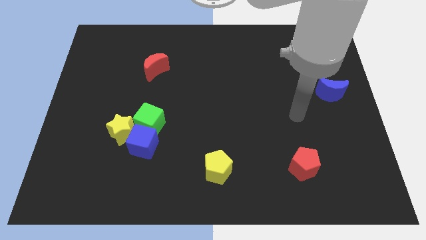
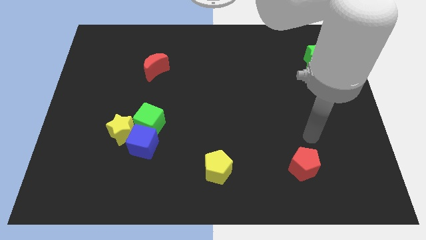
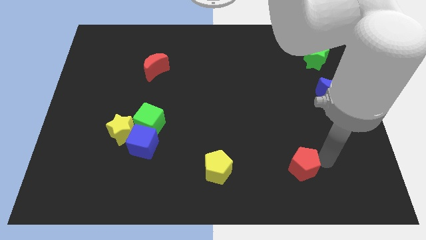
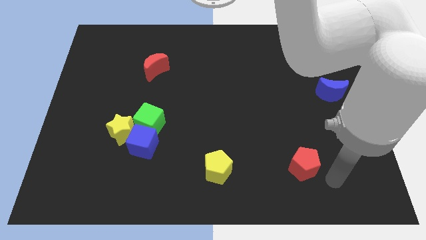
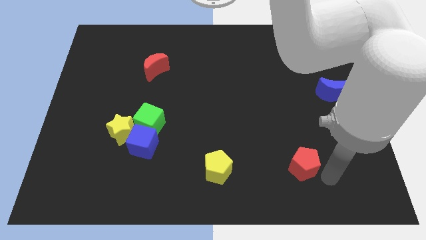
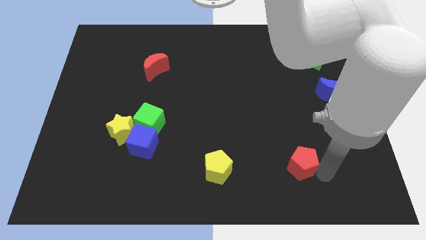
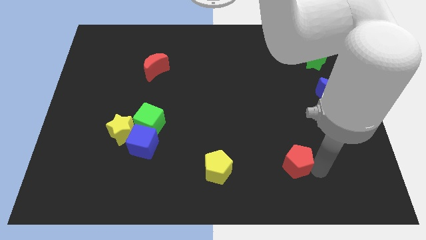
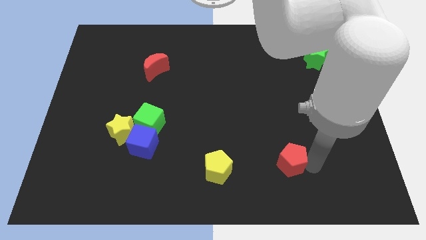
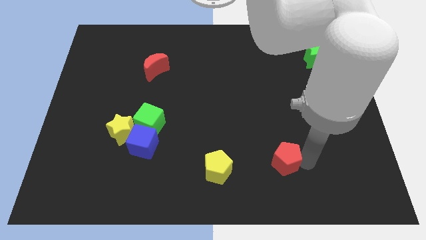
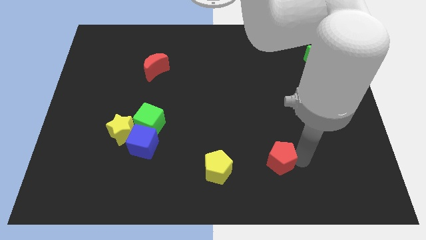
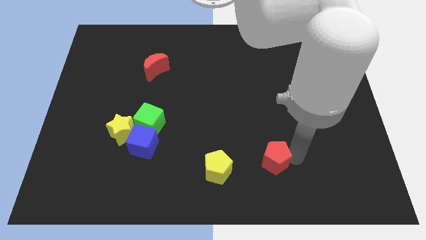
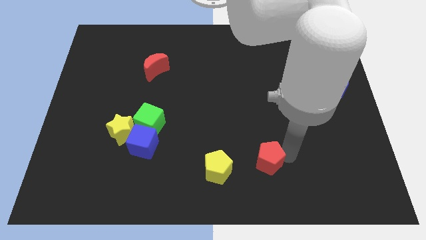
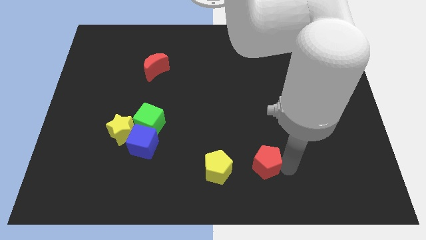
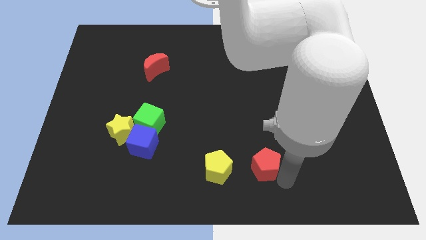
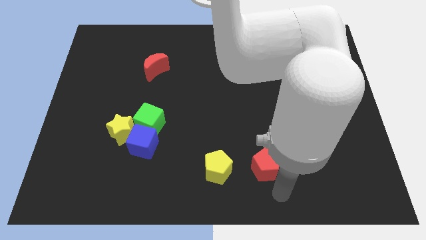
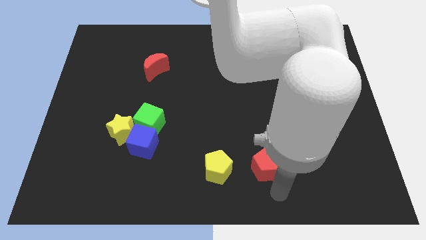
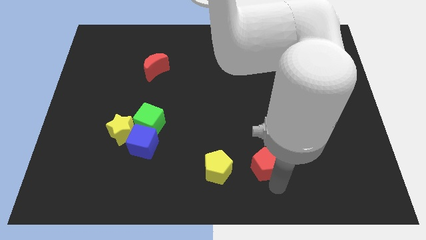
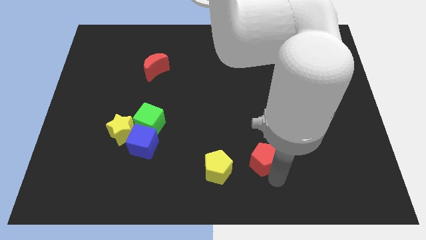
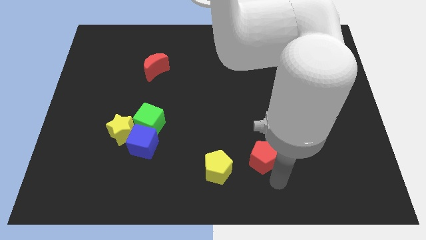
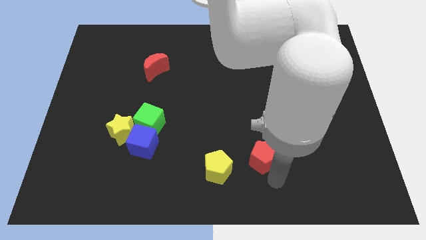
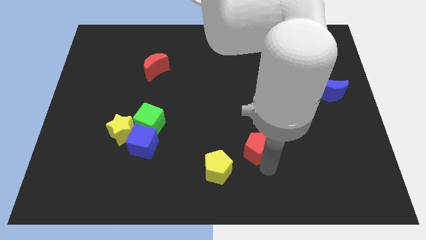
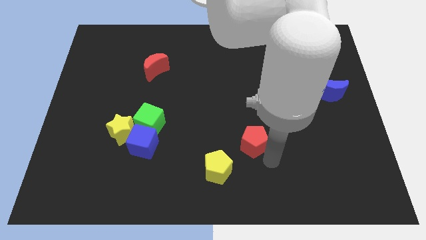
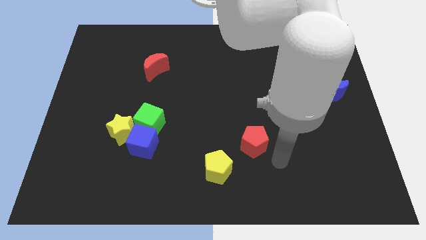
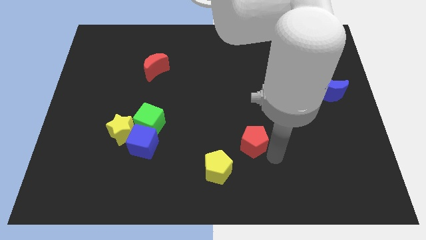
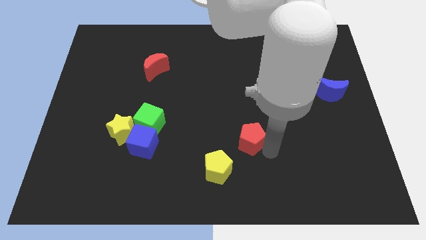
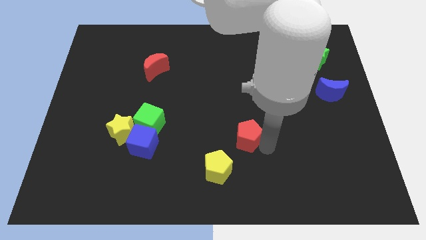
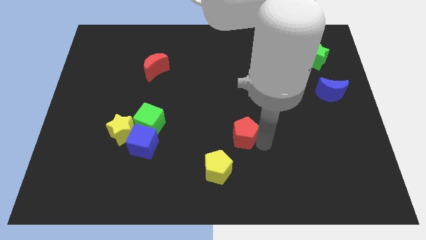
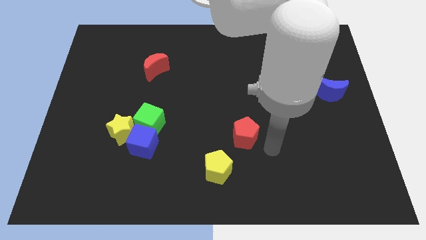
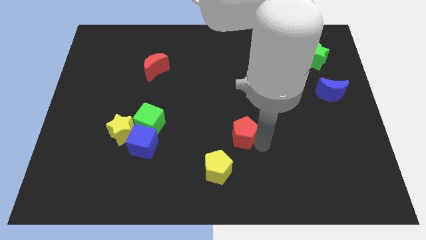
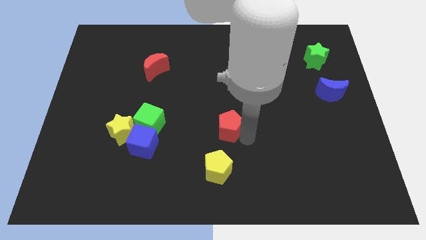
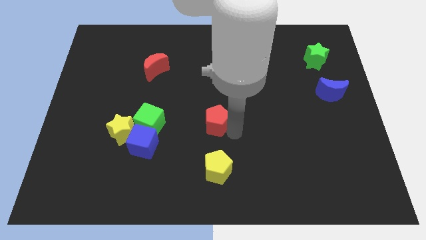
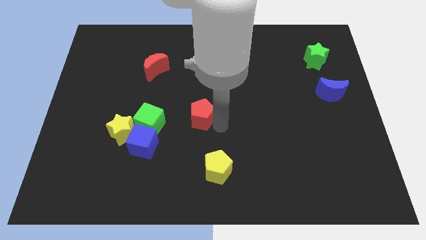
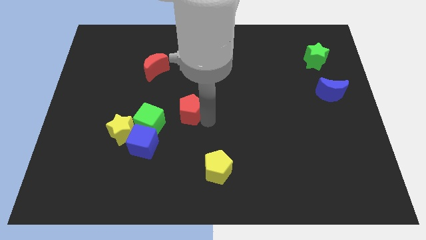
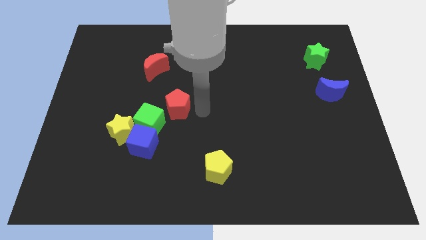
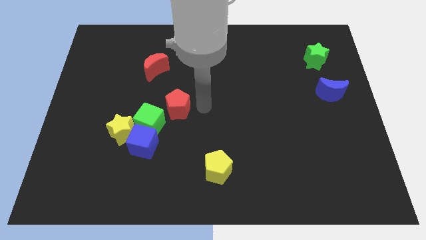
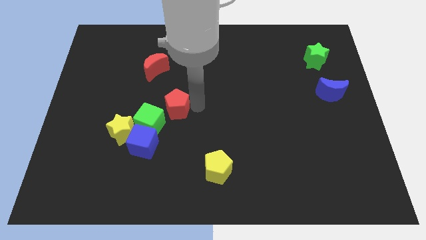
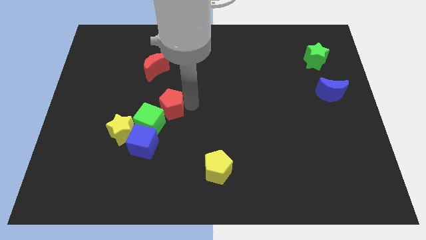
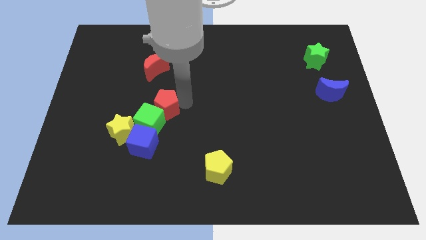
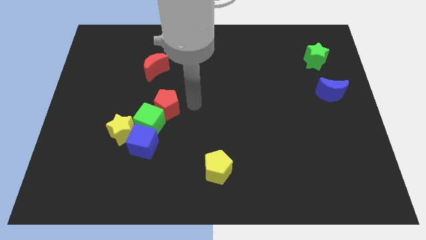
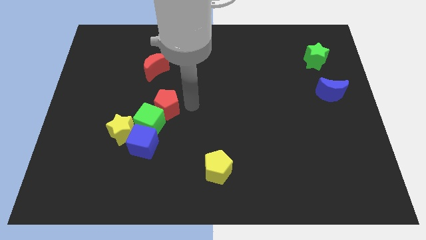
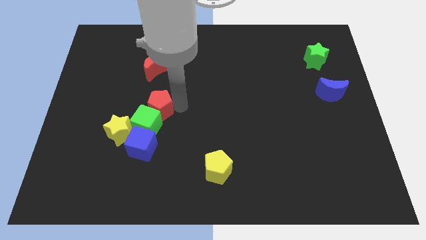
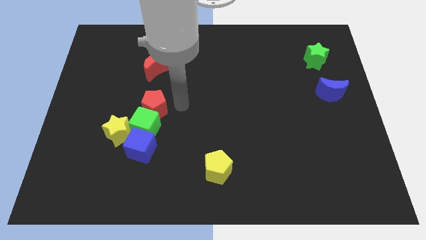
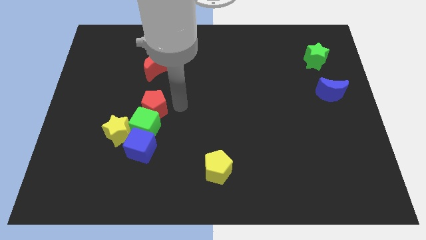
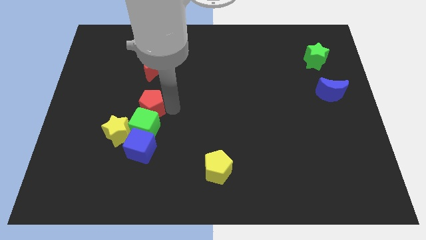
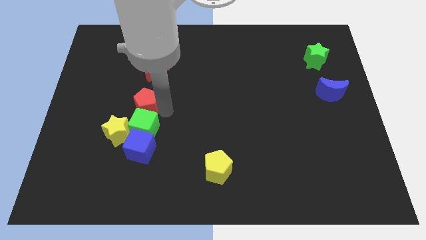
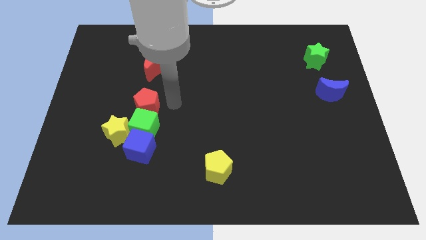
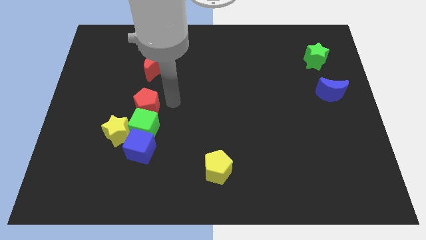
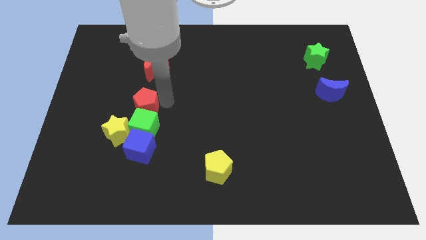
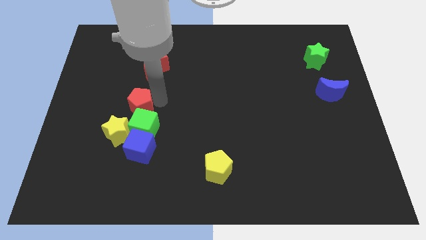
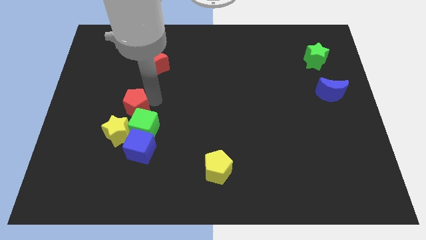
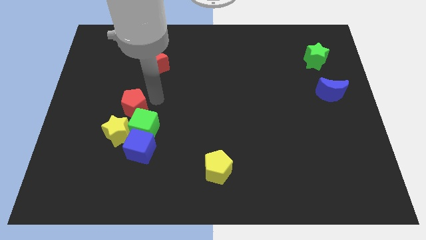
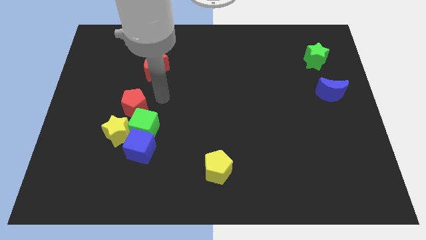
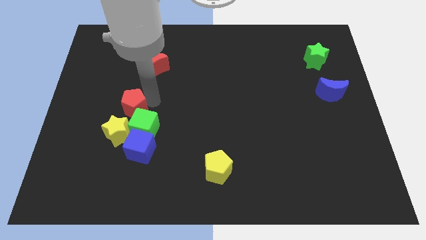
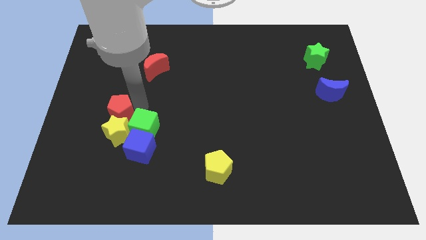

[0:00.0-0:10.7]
put the red pentagon diagonally up and to the left of the yellow star

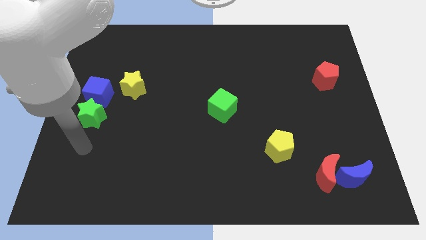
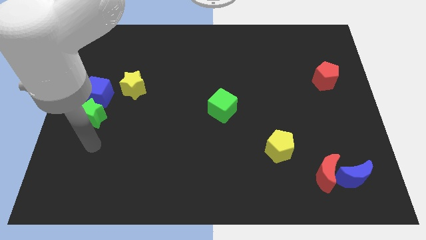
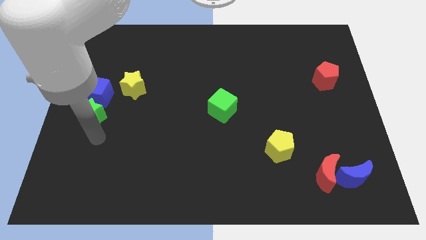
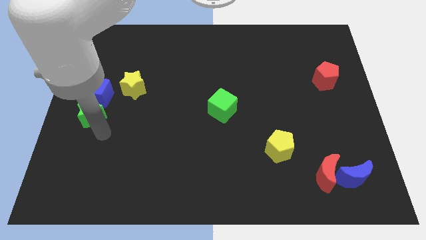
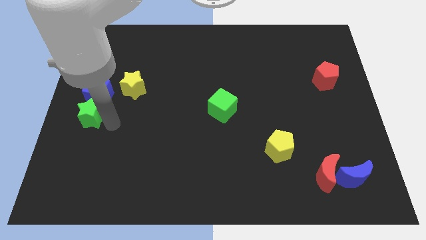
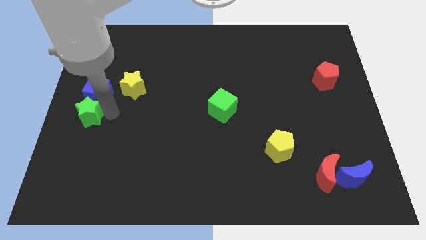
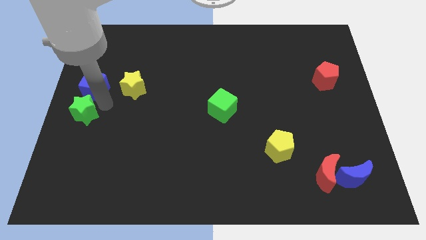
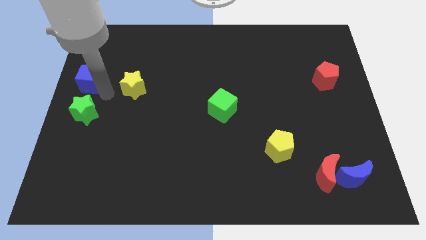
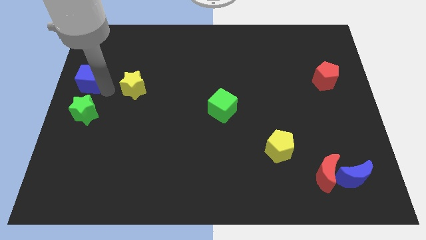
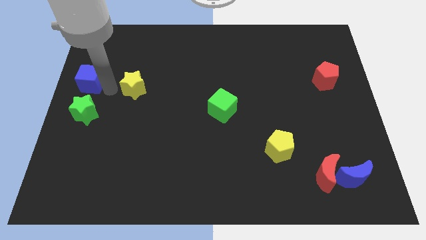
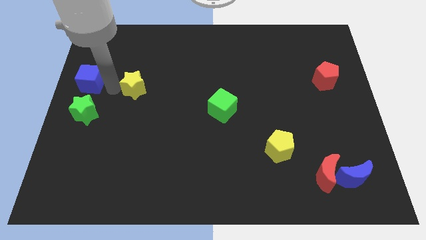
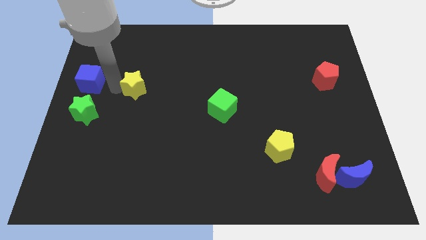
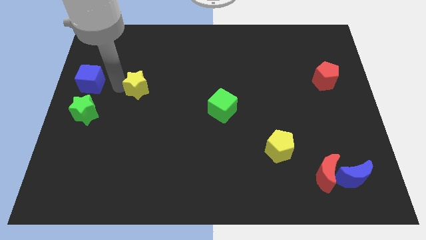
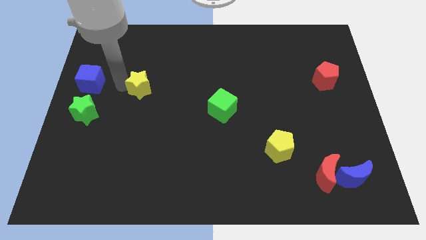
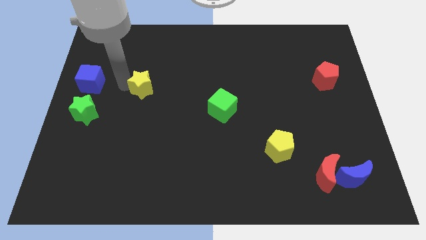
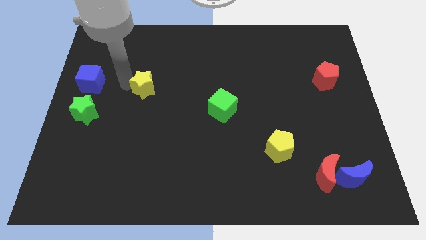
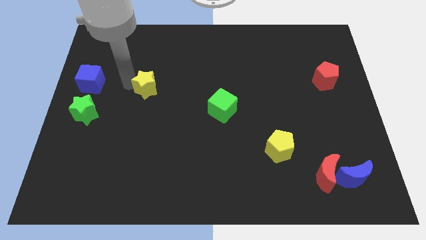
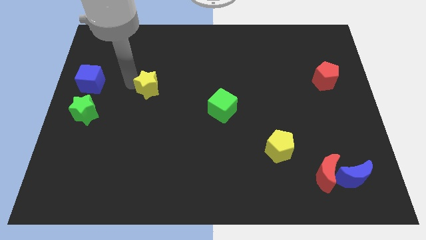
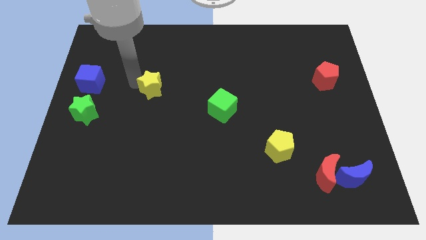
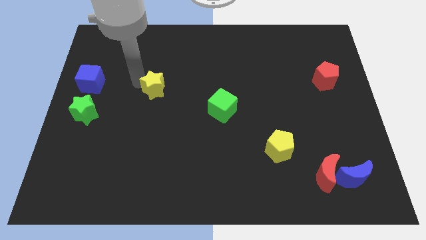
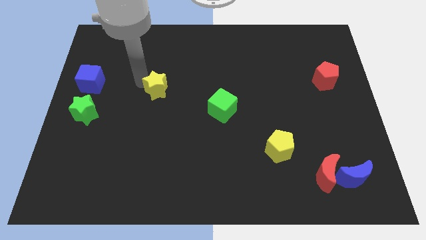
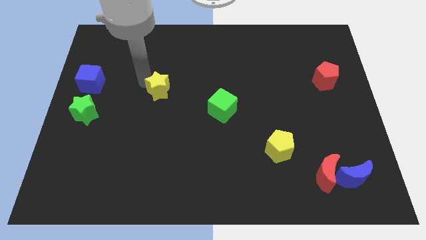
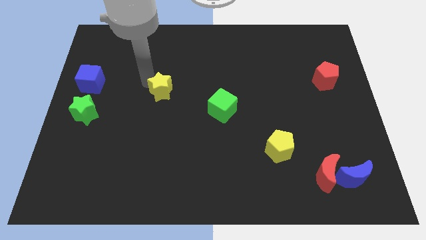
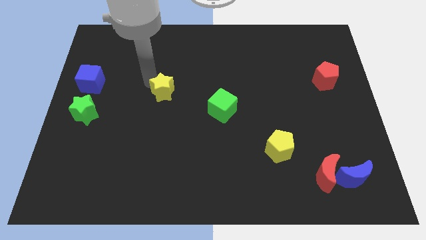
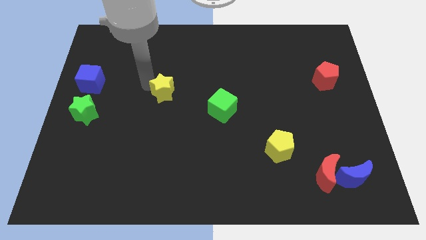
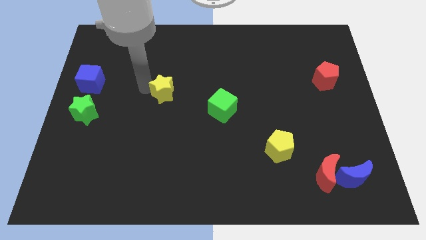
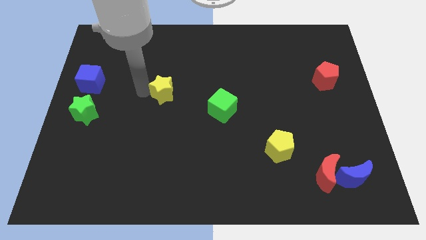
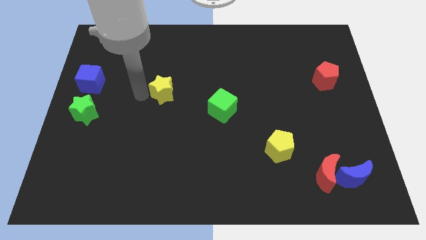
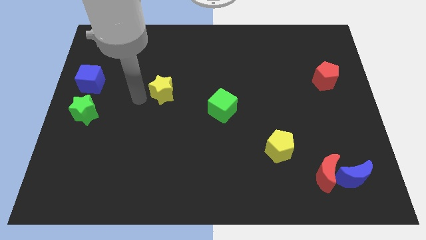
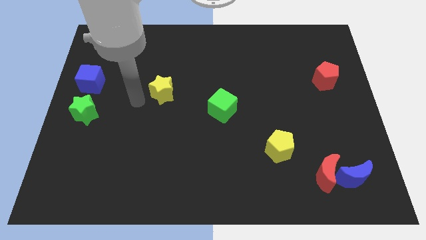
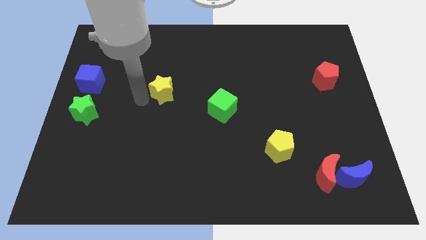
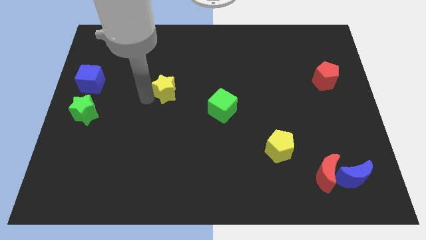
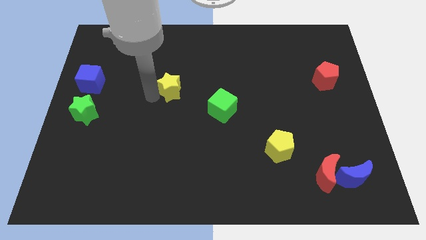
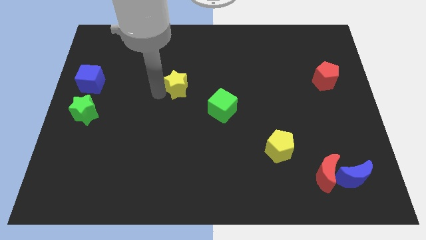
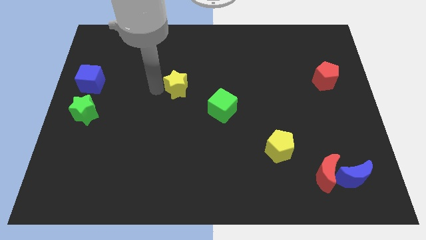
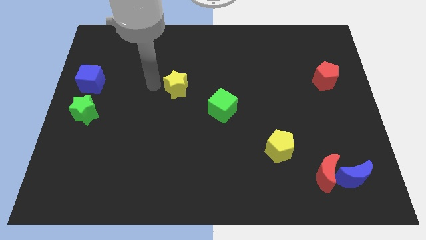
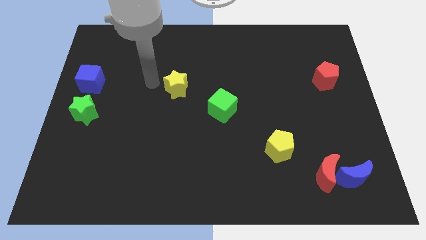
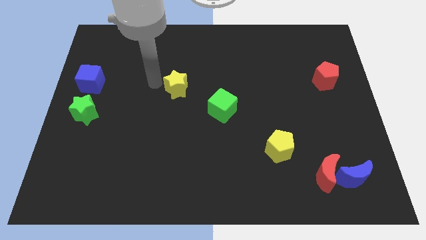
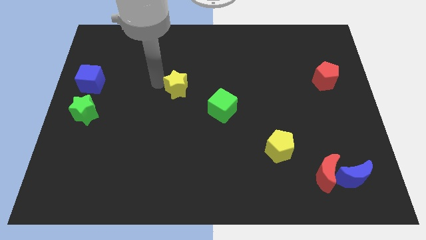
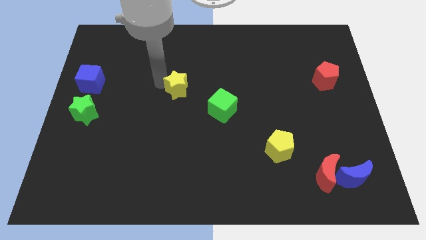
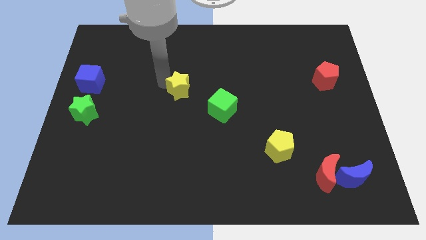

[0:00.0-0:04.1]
put the yellow star to the top left side of the green cube
